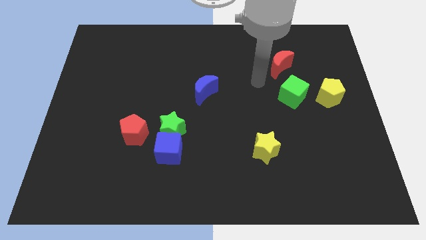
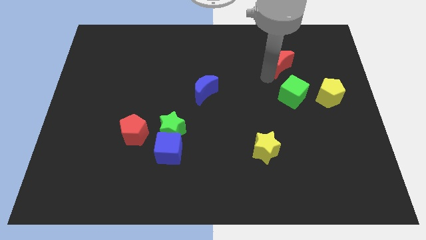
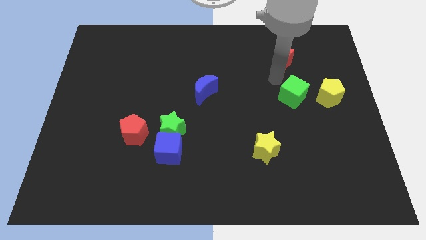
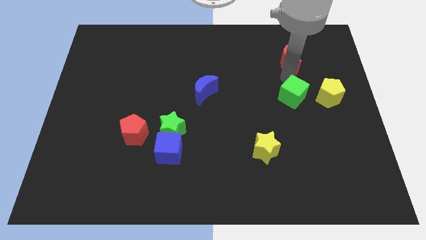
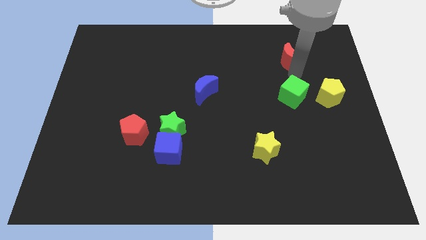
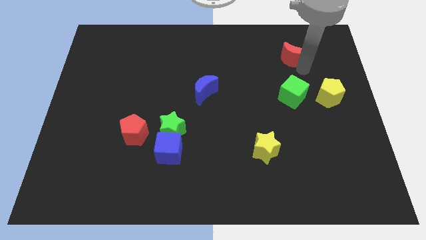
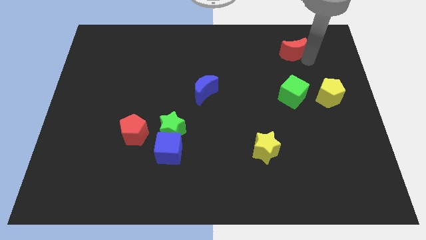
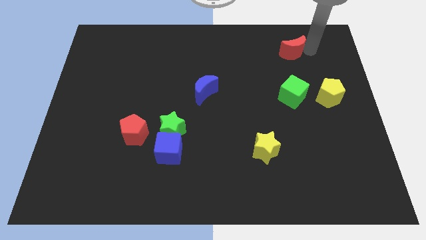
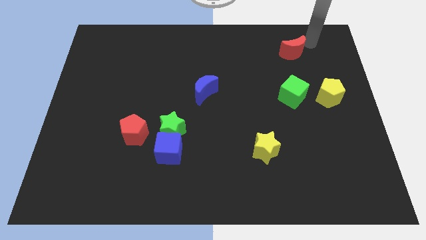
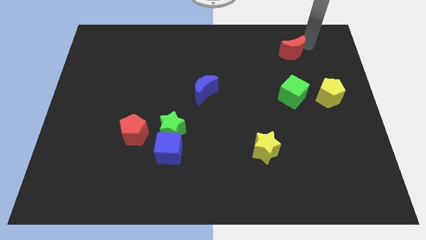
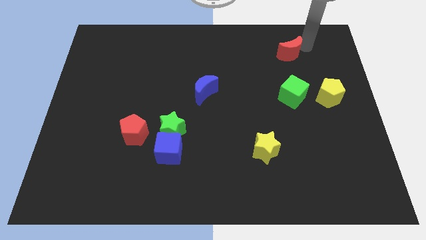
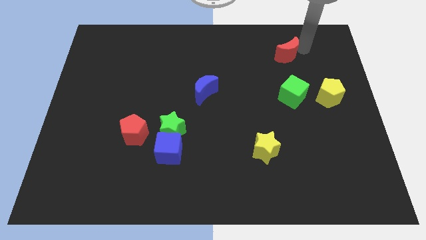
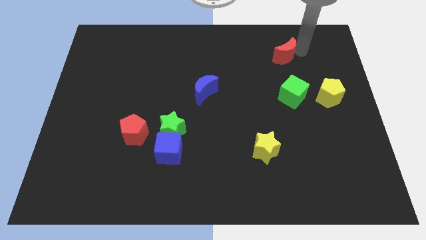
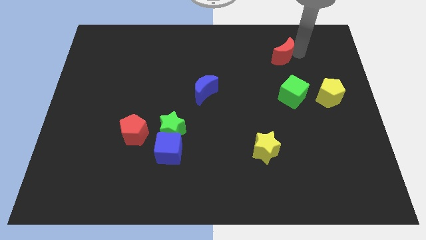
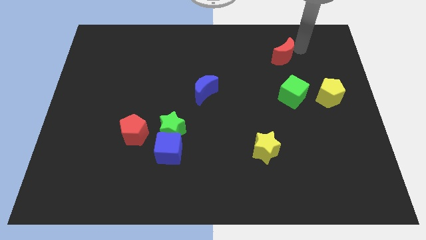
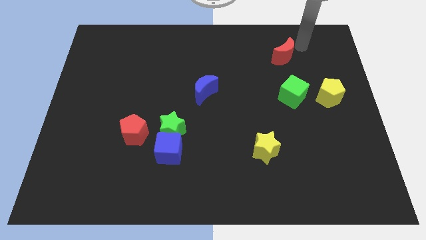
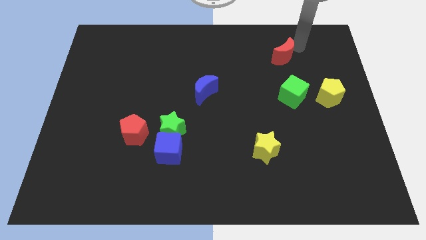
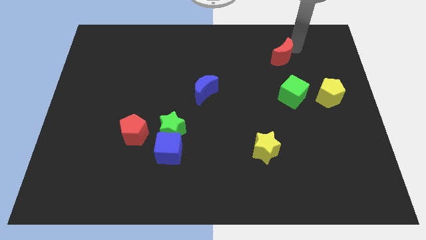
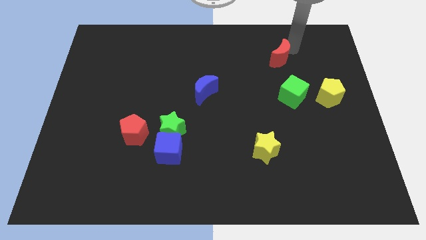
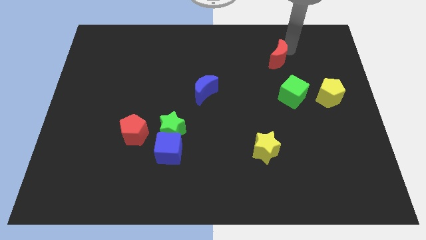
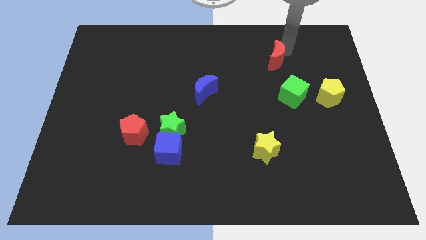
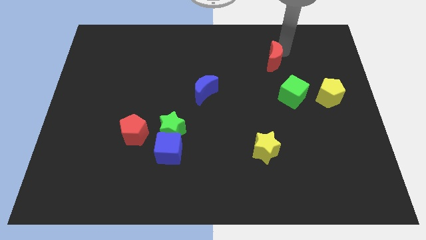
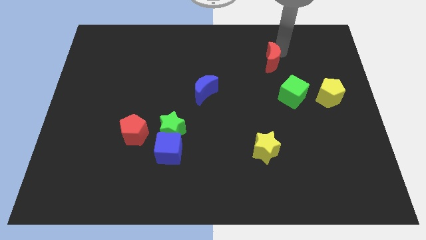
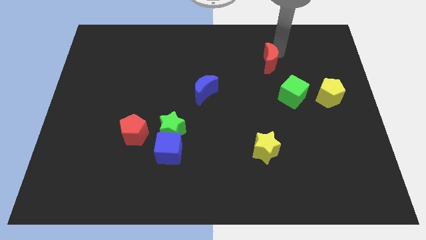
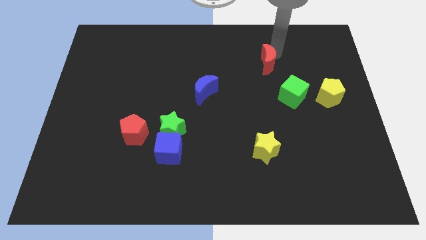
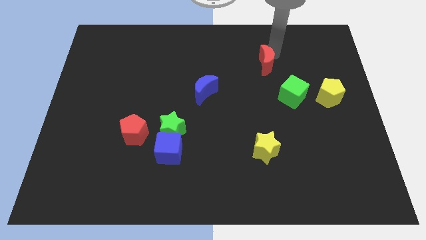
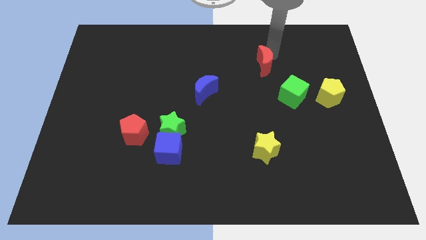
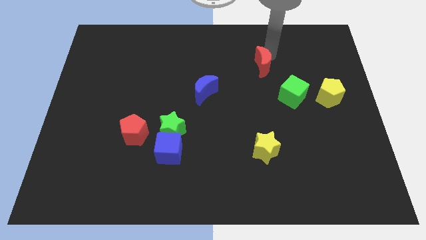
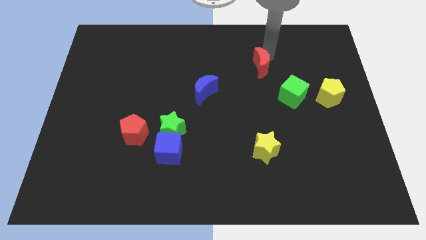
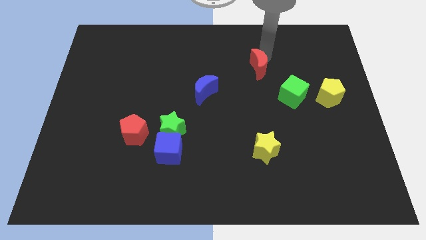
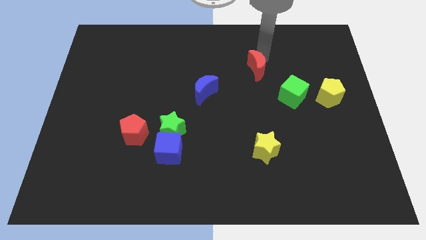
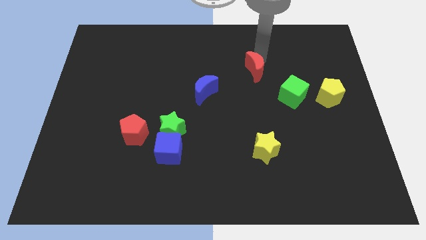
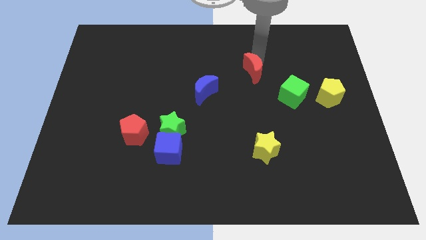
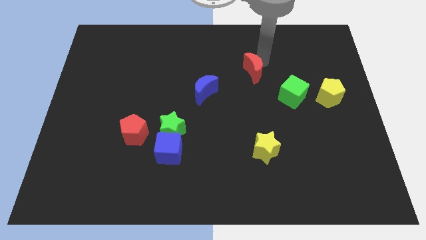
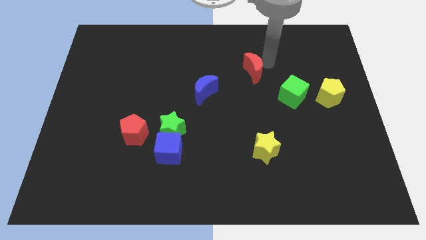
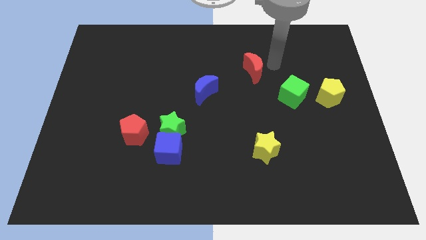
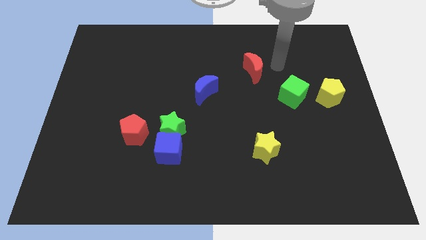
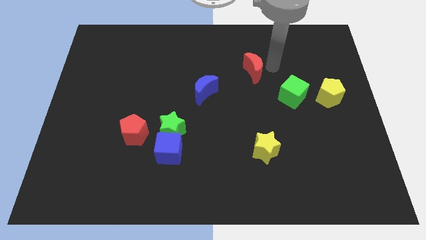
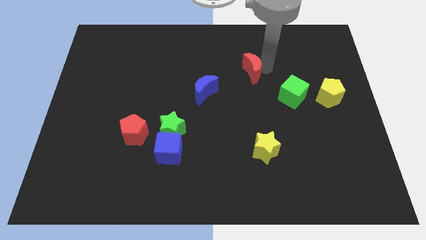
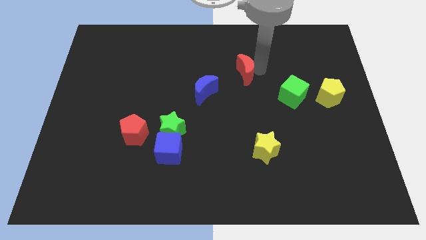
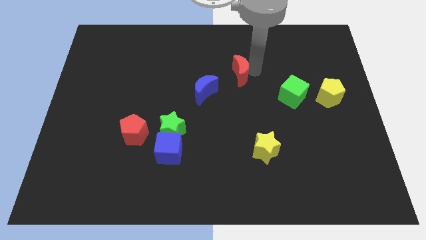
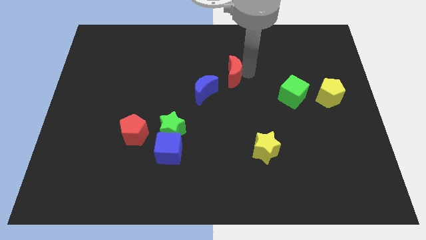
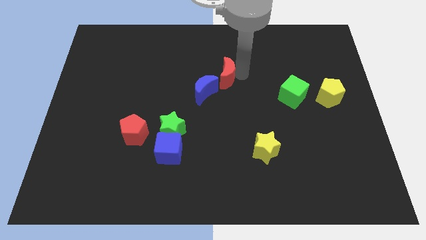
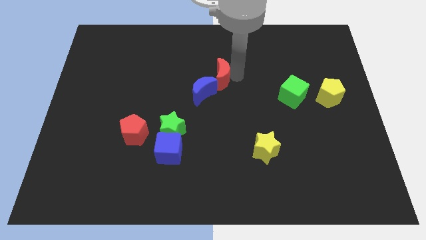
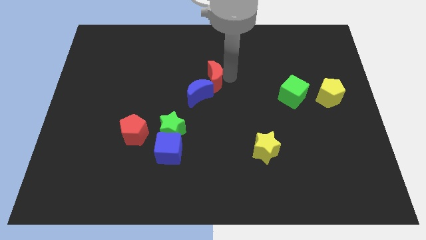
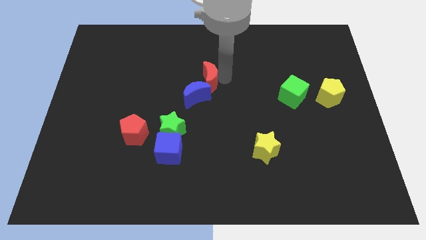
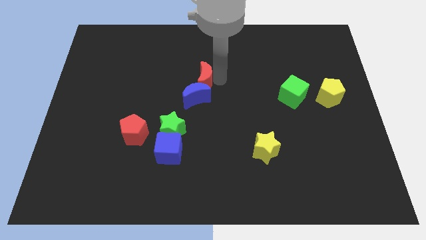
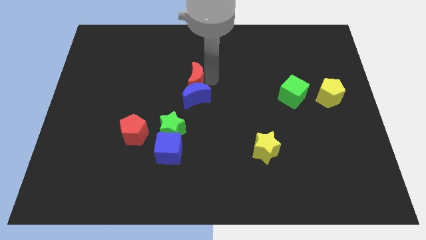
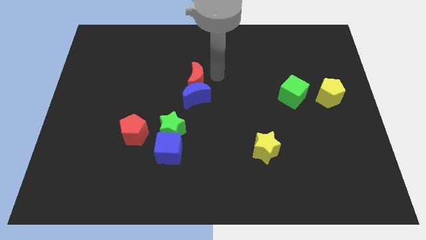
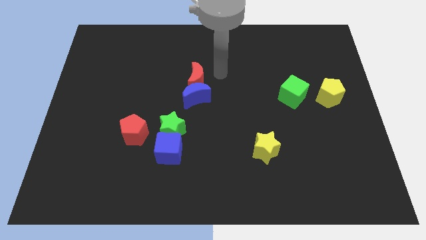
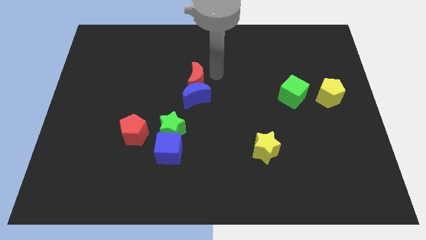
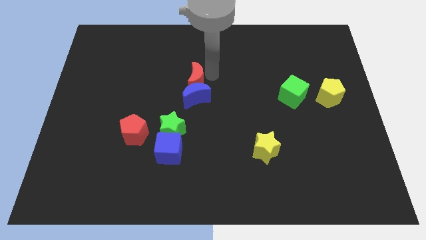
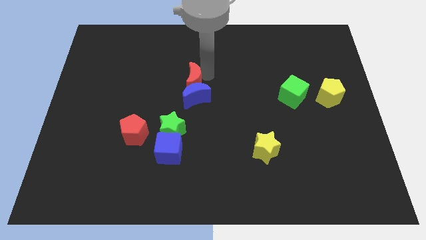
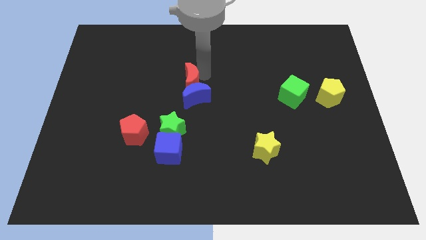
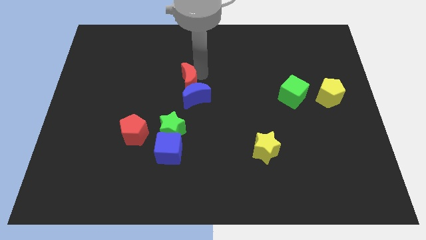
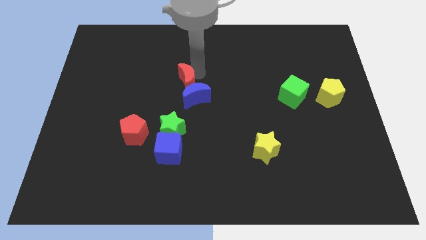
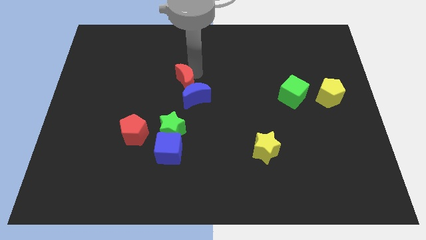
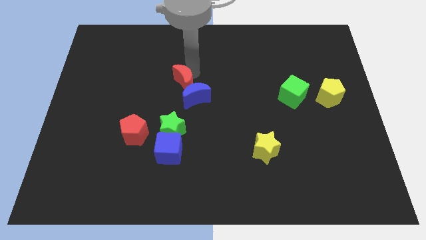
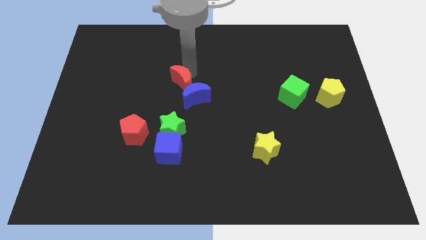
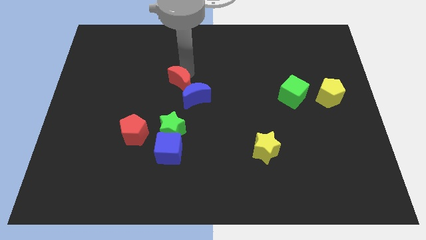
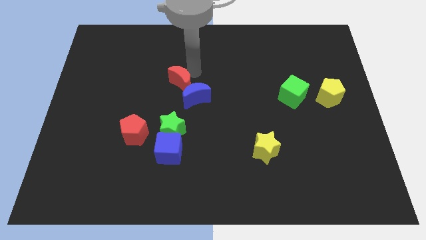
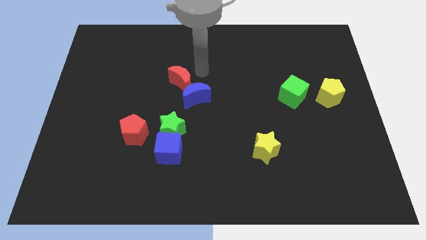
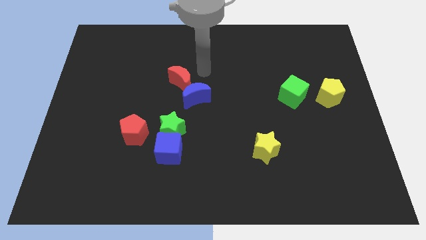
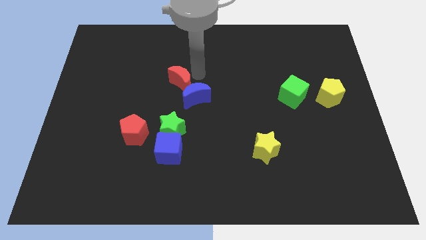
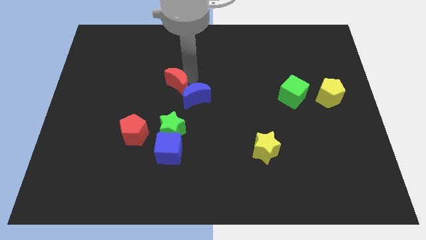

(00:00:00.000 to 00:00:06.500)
move the red moon to the left side of the blue moon

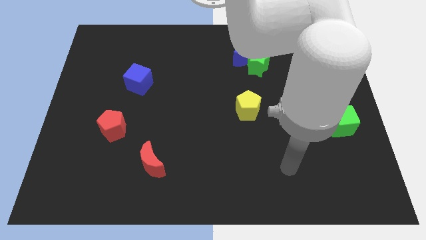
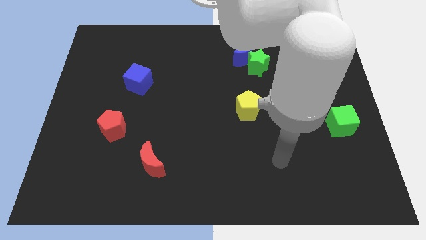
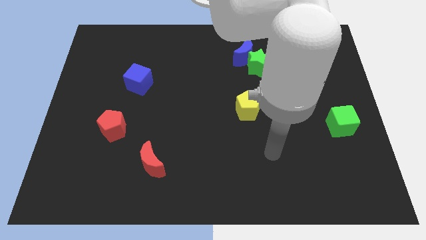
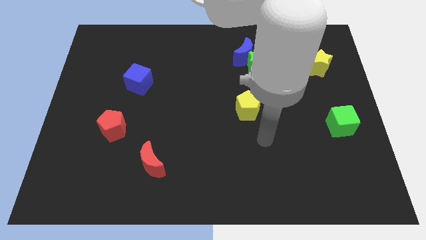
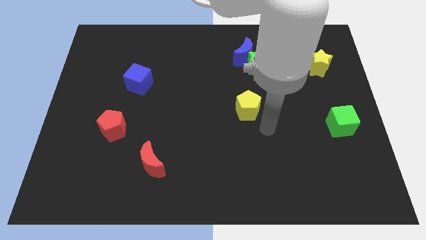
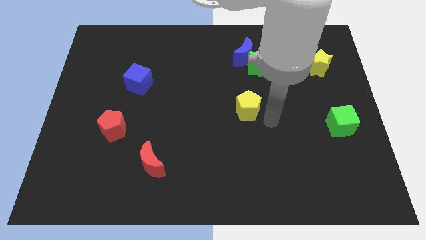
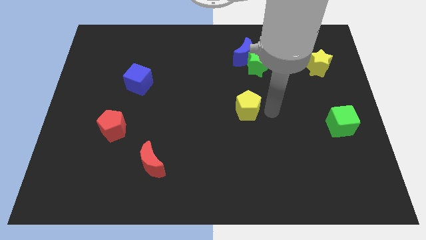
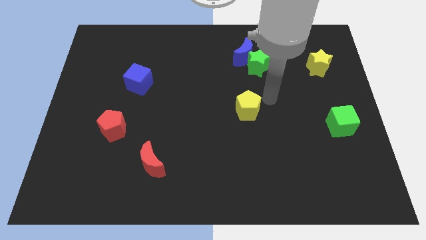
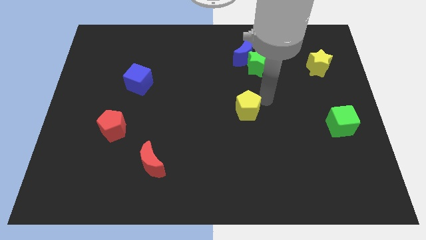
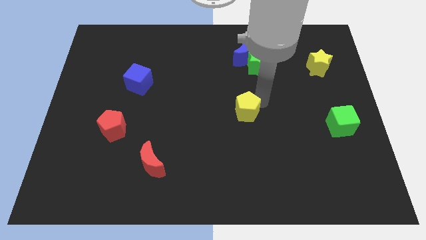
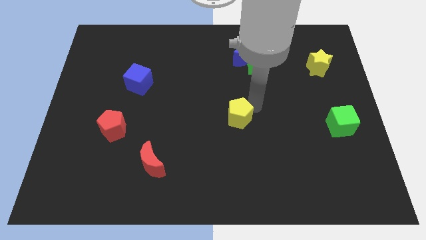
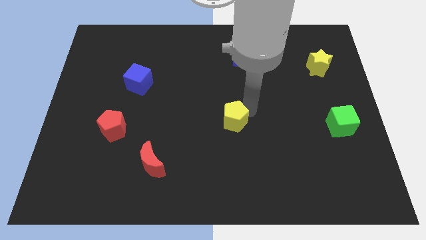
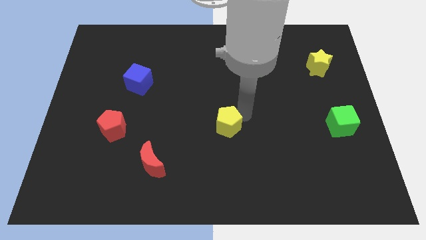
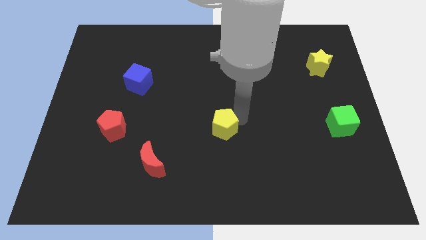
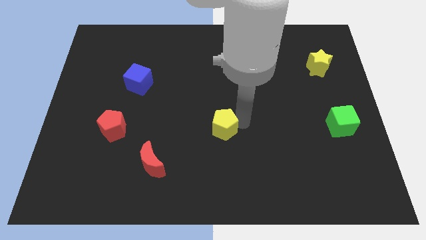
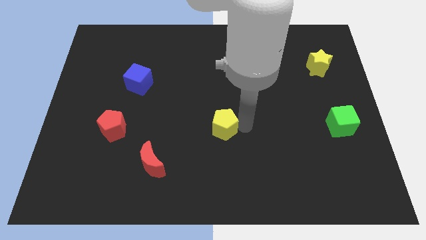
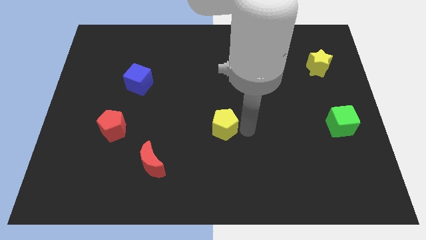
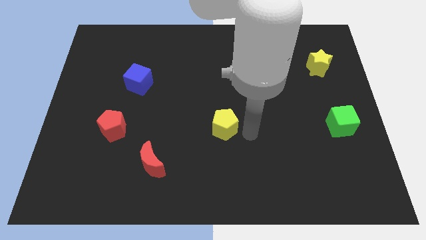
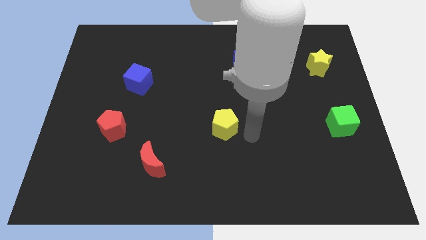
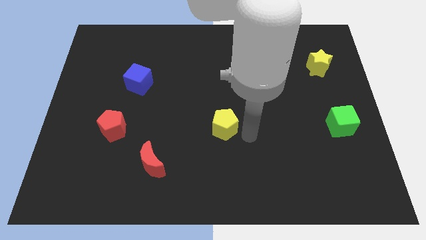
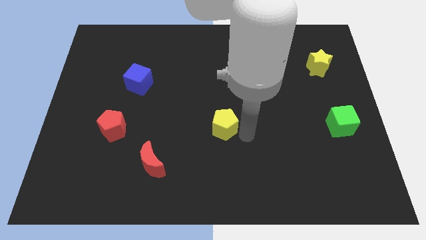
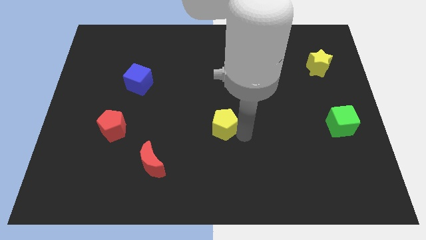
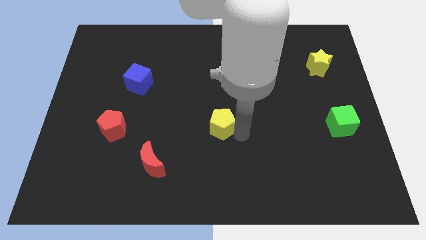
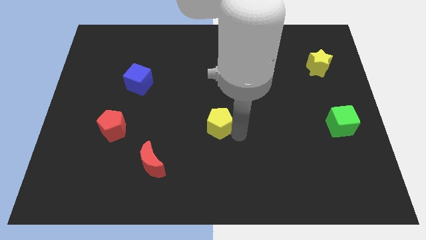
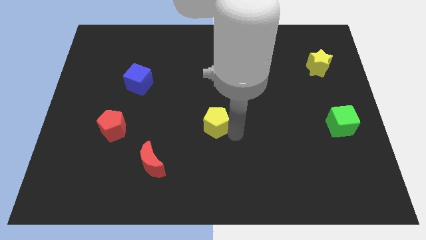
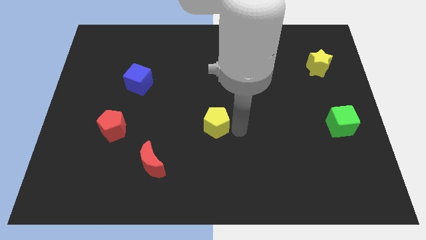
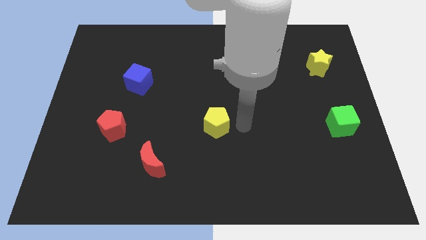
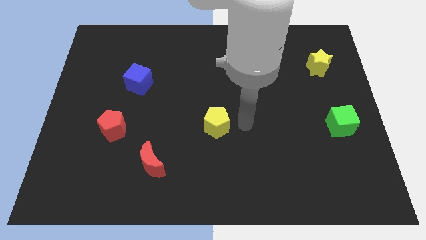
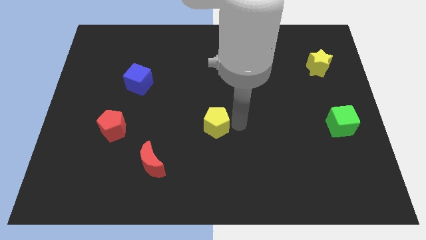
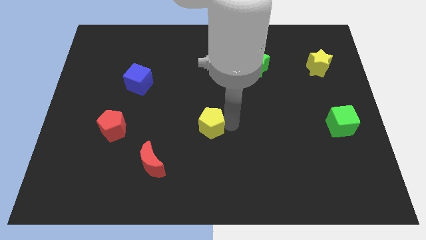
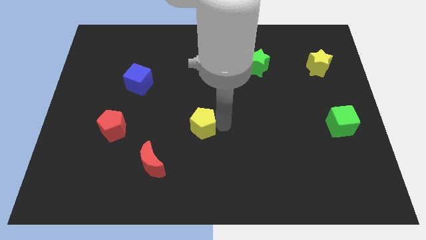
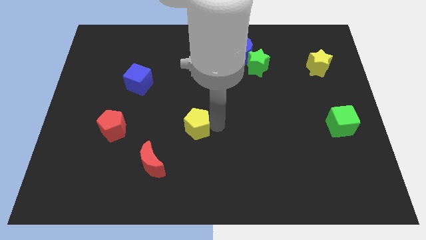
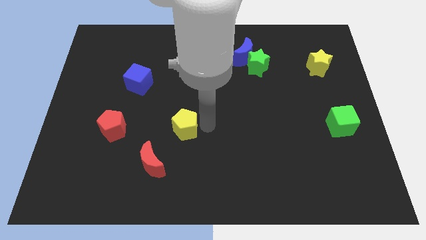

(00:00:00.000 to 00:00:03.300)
push the yellow pentagon just right of the red pentagon
